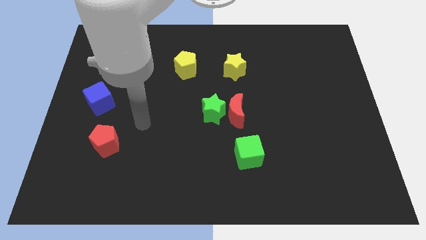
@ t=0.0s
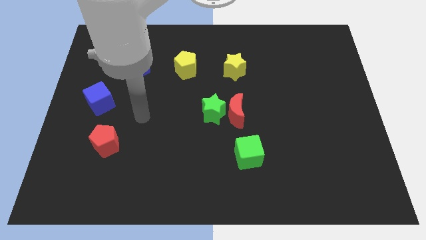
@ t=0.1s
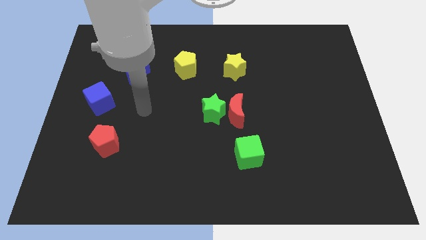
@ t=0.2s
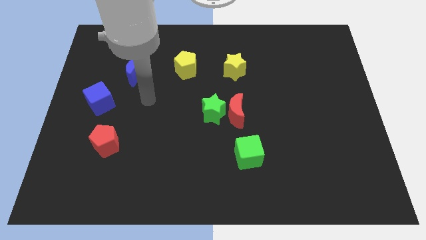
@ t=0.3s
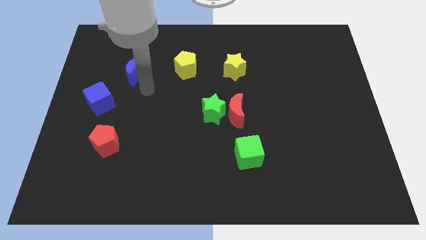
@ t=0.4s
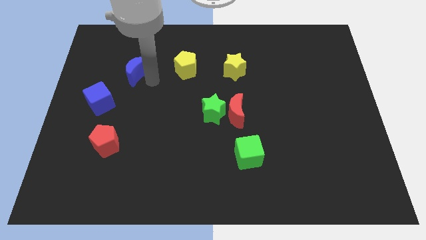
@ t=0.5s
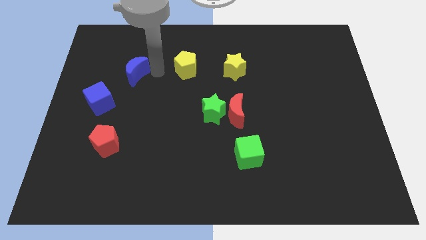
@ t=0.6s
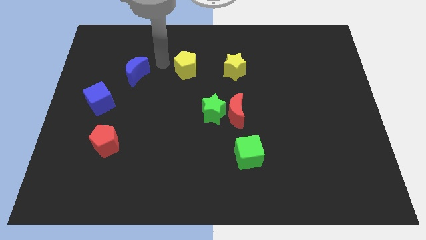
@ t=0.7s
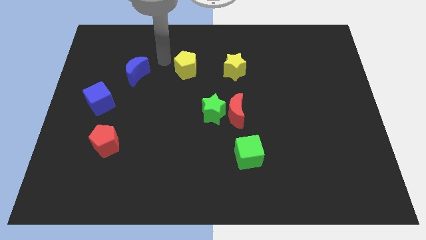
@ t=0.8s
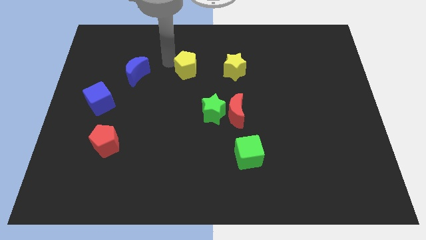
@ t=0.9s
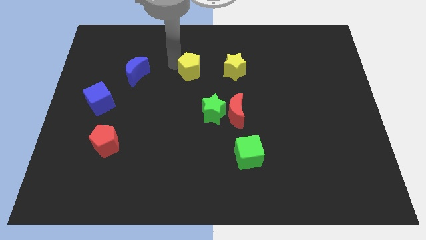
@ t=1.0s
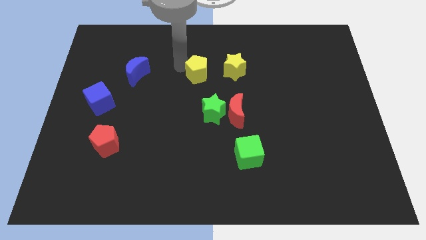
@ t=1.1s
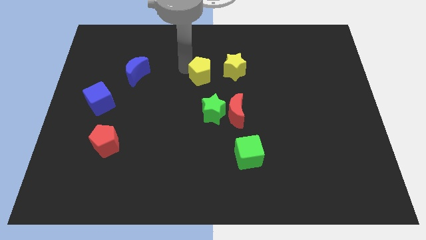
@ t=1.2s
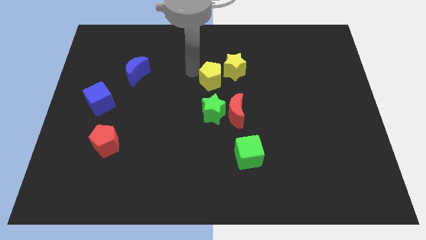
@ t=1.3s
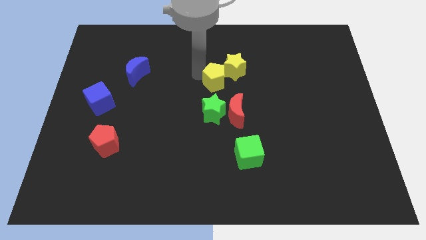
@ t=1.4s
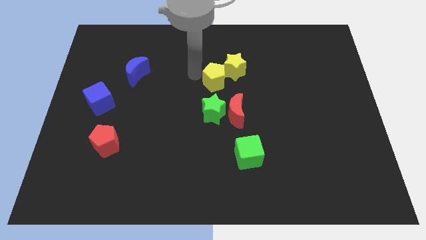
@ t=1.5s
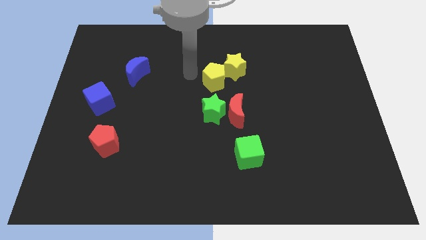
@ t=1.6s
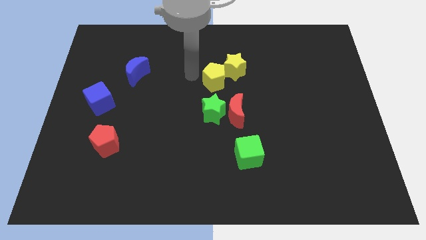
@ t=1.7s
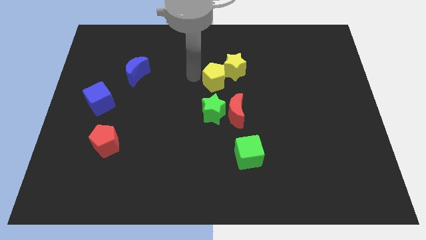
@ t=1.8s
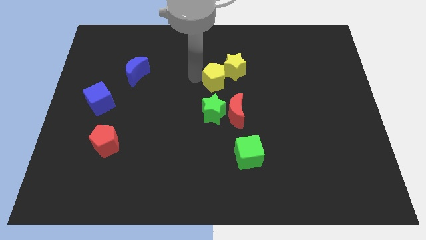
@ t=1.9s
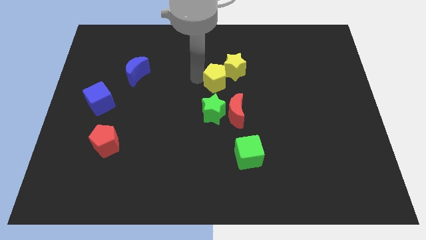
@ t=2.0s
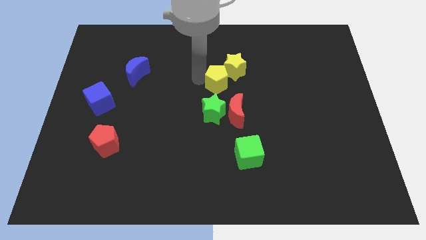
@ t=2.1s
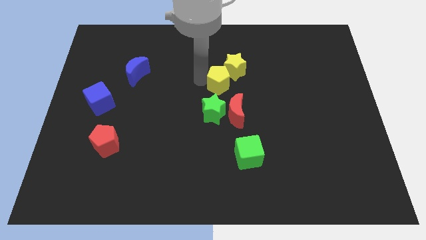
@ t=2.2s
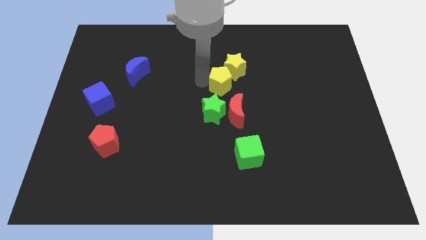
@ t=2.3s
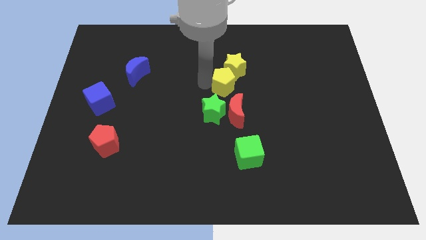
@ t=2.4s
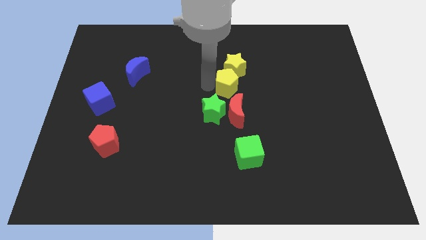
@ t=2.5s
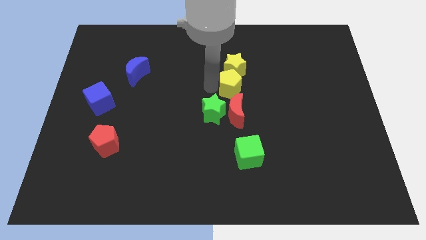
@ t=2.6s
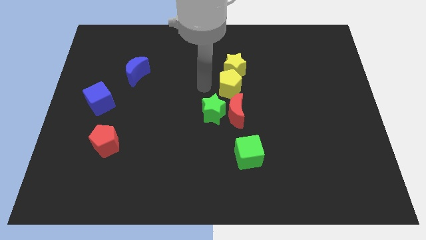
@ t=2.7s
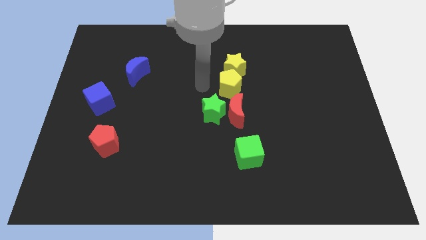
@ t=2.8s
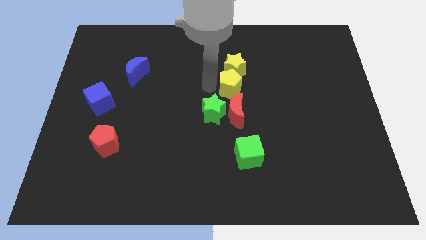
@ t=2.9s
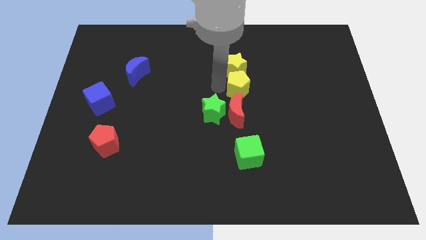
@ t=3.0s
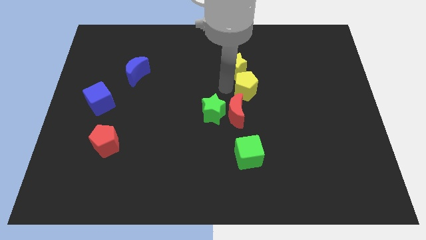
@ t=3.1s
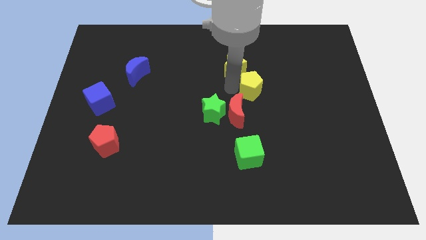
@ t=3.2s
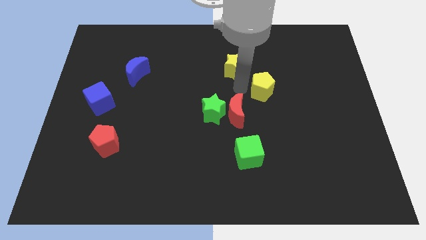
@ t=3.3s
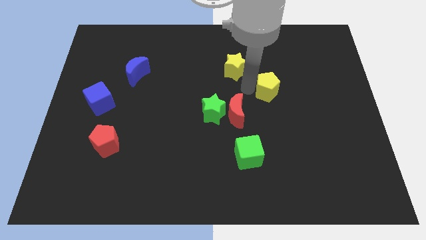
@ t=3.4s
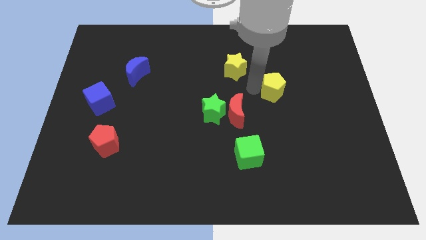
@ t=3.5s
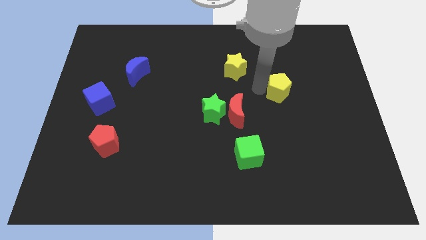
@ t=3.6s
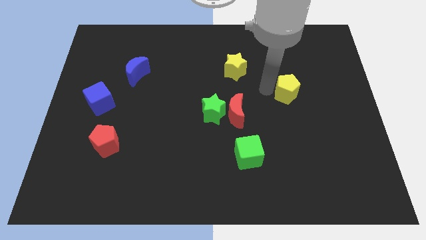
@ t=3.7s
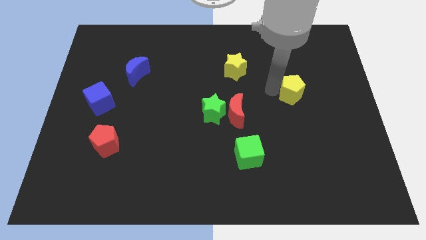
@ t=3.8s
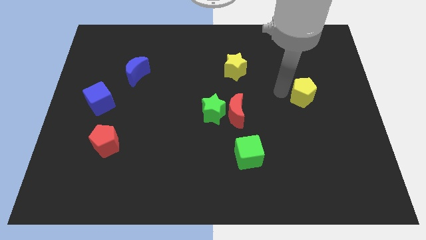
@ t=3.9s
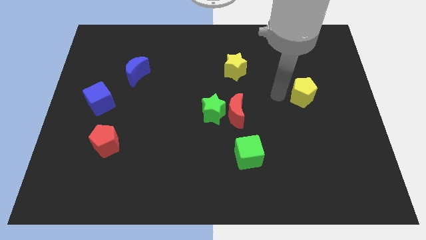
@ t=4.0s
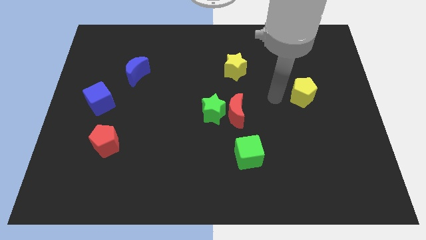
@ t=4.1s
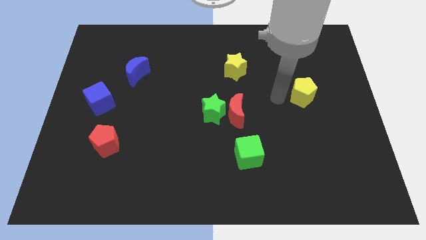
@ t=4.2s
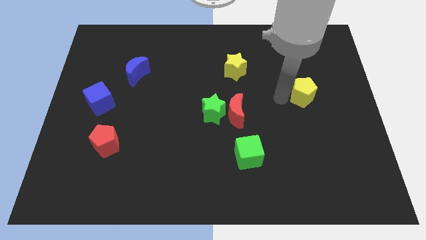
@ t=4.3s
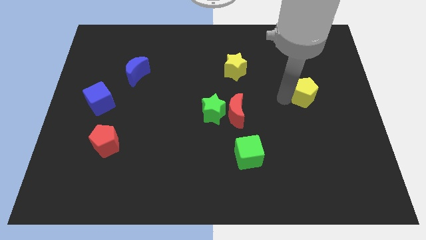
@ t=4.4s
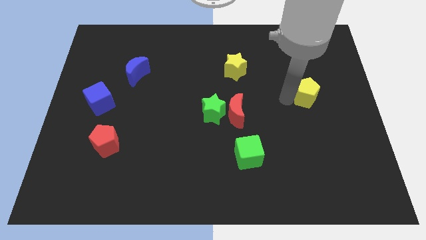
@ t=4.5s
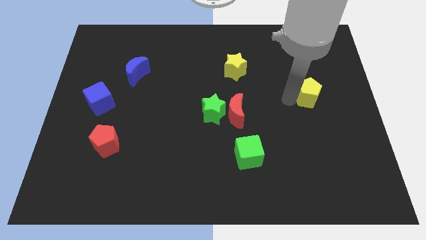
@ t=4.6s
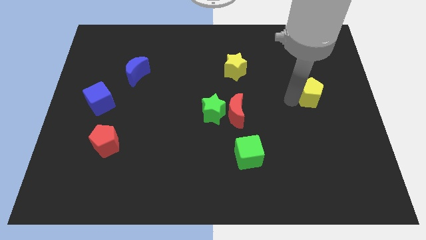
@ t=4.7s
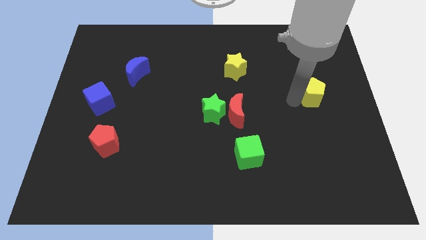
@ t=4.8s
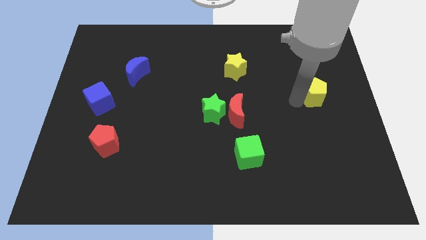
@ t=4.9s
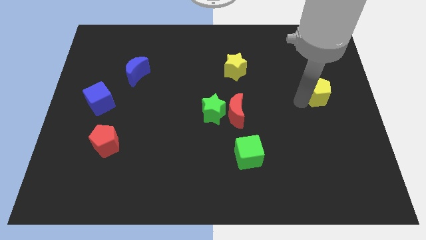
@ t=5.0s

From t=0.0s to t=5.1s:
push the yellow pentagon to the right side

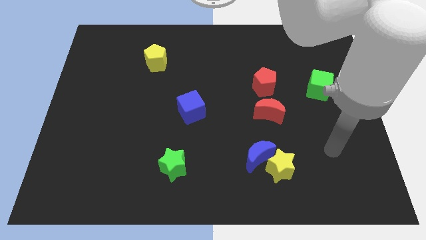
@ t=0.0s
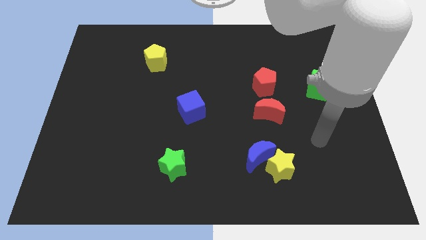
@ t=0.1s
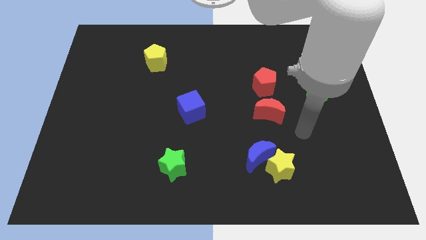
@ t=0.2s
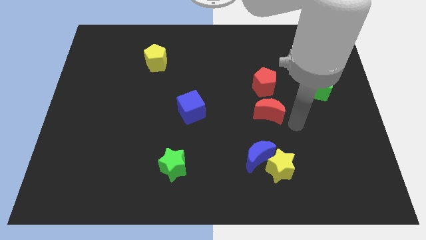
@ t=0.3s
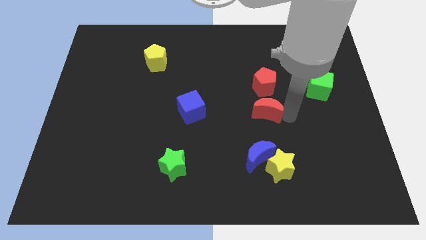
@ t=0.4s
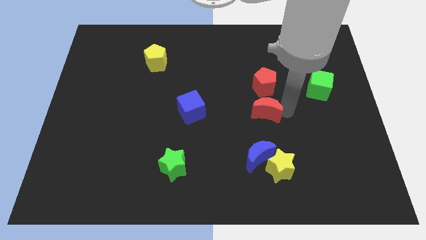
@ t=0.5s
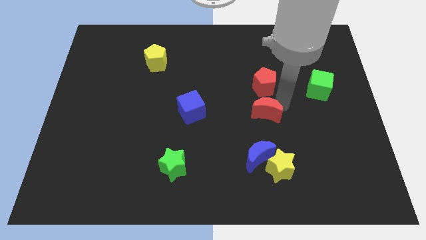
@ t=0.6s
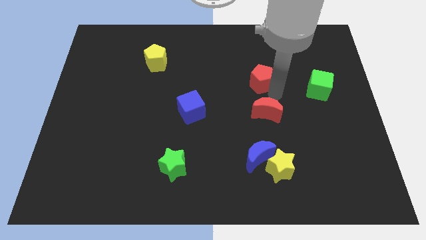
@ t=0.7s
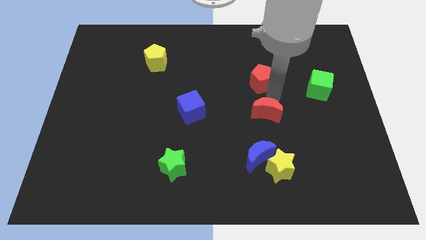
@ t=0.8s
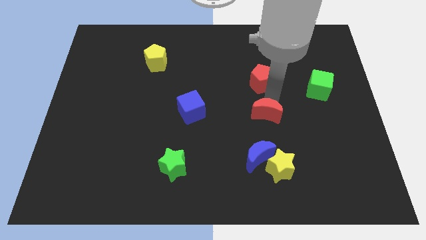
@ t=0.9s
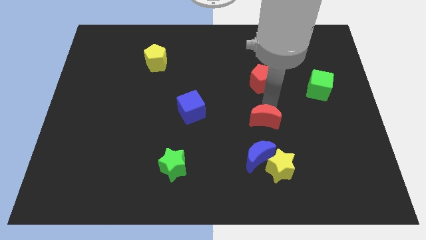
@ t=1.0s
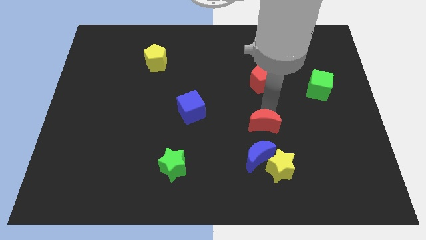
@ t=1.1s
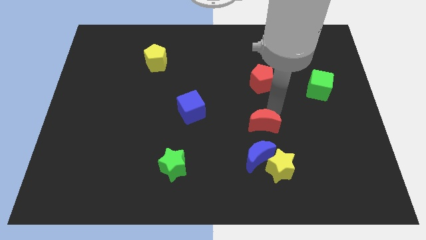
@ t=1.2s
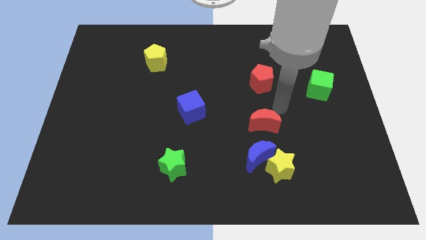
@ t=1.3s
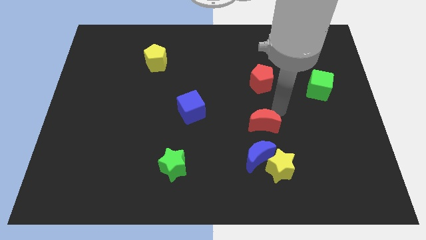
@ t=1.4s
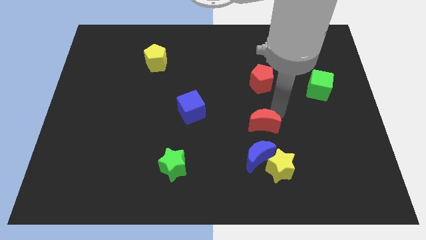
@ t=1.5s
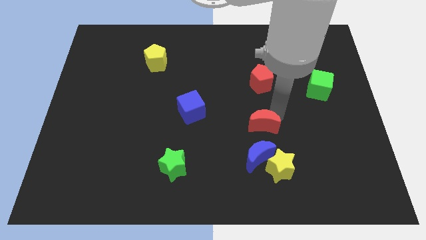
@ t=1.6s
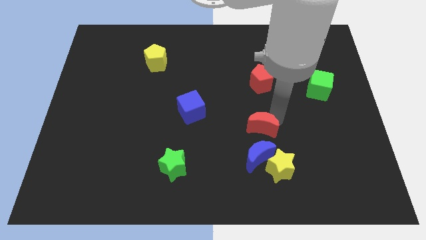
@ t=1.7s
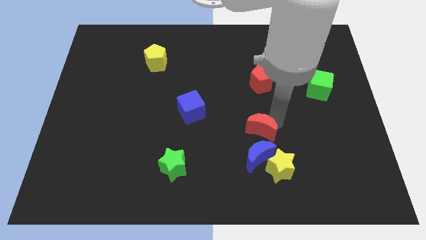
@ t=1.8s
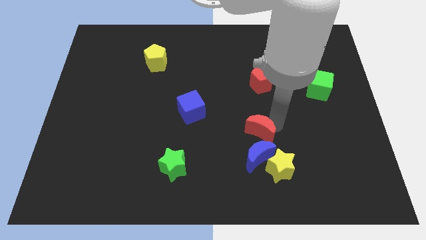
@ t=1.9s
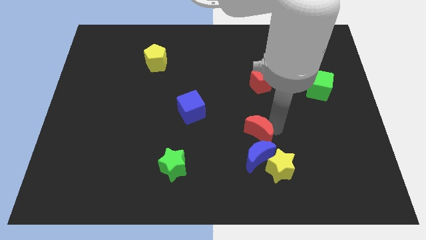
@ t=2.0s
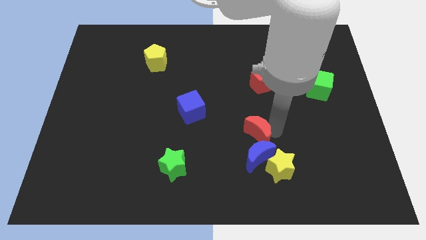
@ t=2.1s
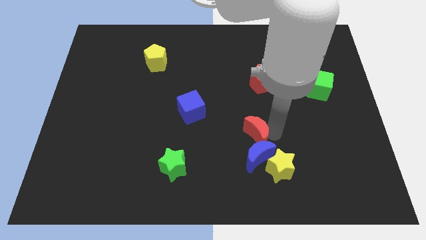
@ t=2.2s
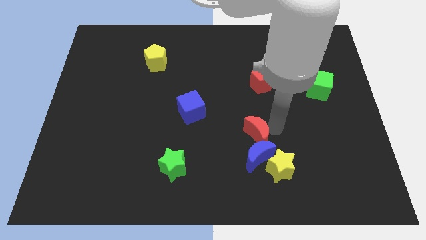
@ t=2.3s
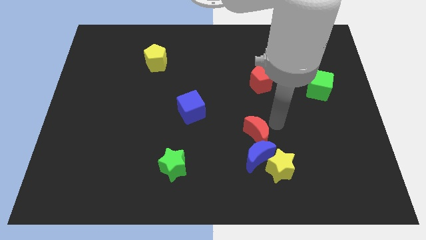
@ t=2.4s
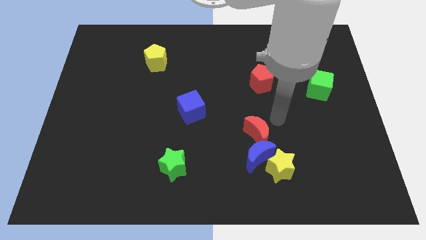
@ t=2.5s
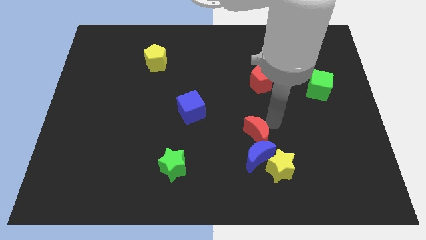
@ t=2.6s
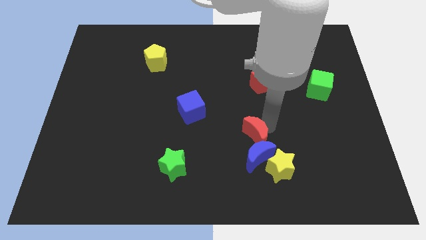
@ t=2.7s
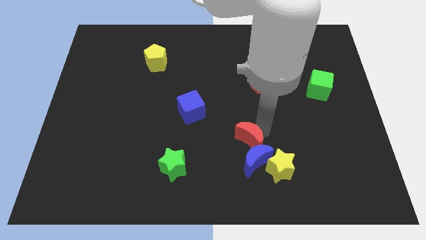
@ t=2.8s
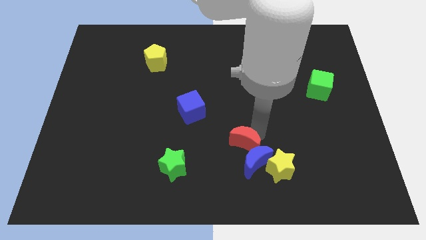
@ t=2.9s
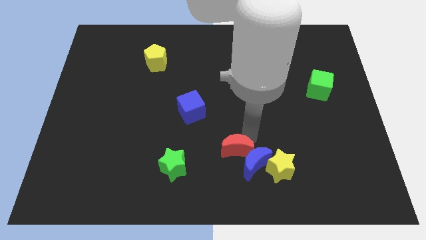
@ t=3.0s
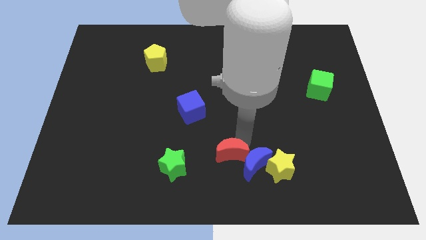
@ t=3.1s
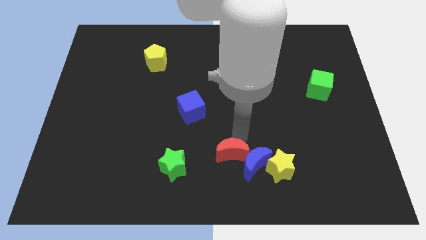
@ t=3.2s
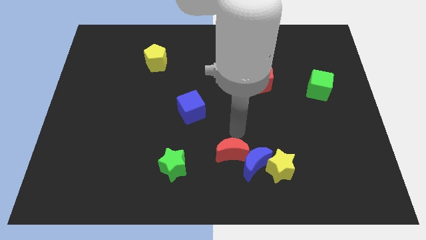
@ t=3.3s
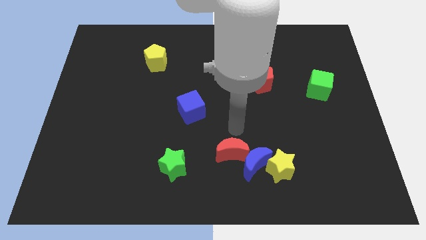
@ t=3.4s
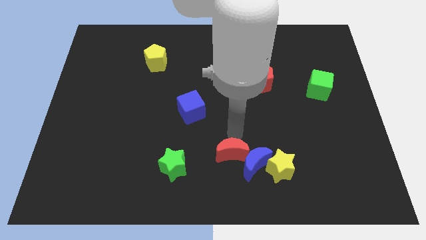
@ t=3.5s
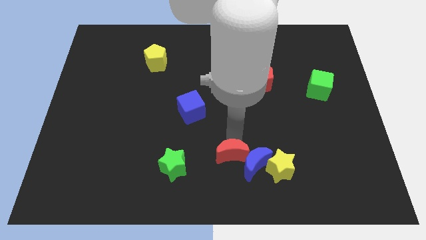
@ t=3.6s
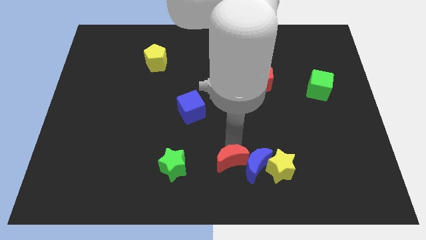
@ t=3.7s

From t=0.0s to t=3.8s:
push the red moon to the bottom side
